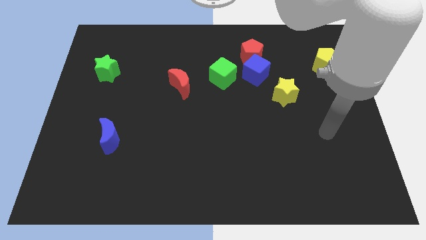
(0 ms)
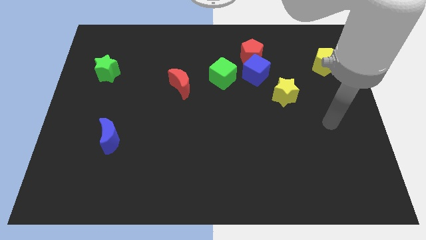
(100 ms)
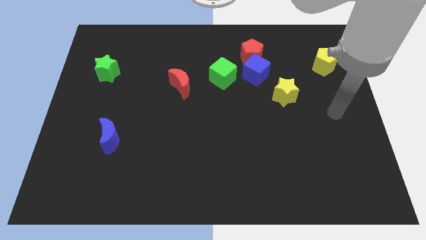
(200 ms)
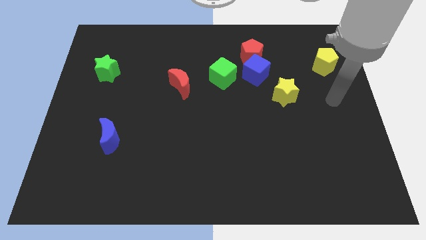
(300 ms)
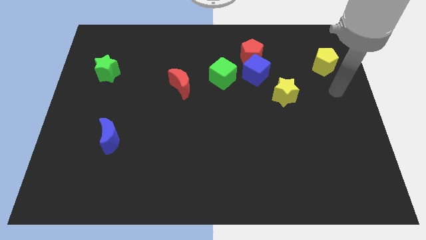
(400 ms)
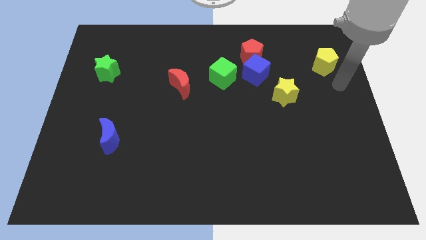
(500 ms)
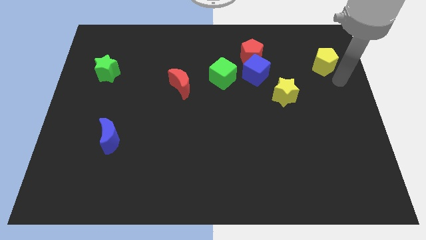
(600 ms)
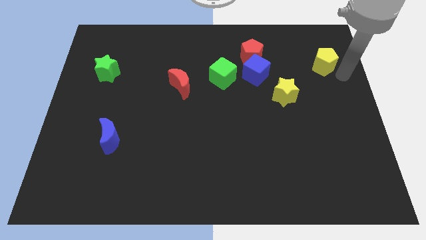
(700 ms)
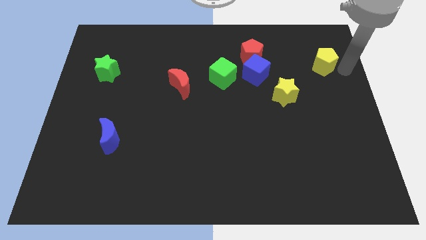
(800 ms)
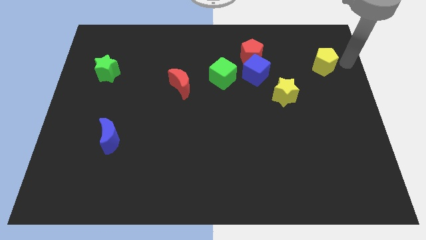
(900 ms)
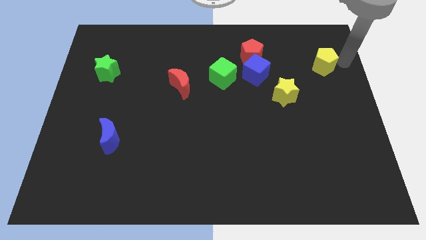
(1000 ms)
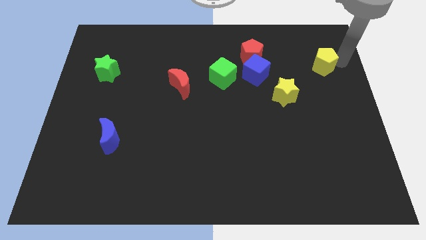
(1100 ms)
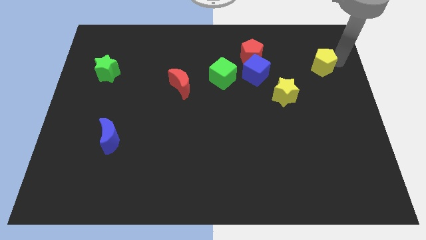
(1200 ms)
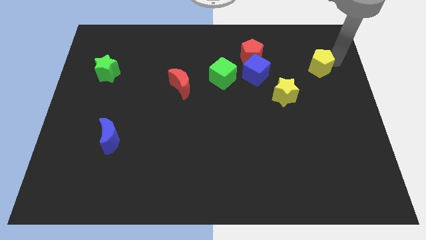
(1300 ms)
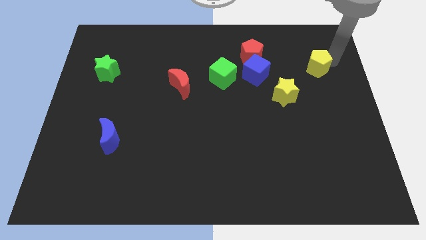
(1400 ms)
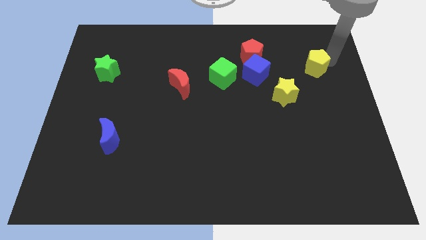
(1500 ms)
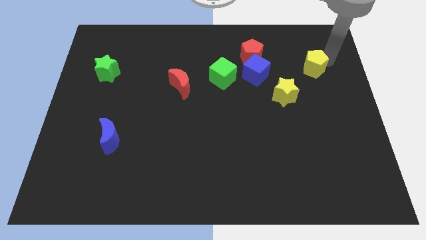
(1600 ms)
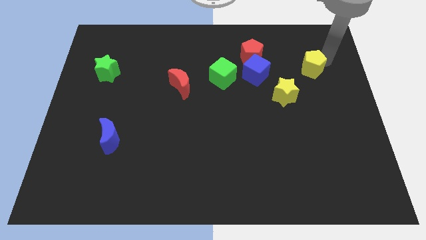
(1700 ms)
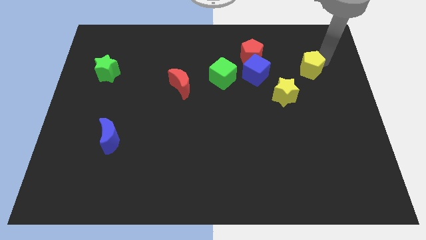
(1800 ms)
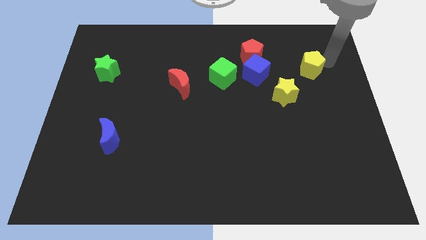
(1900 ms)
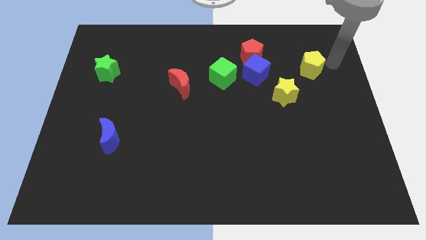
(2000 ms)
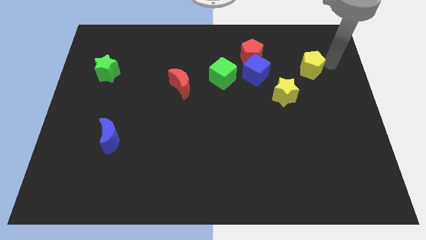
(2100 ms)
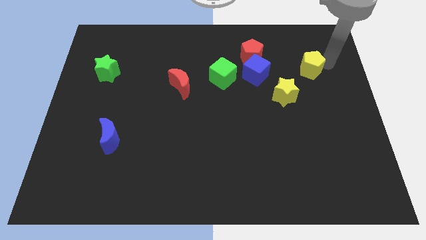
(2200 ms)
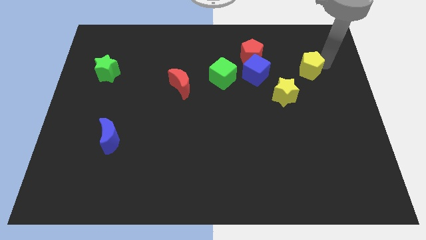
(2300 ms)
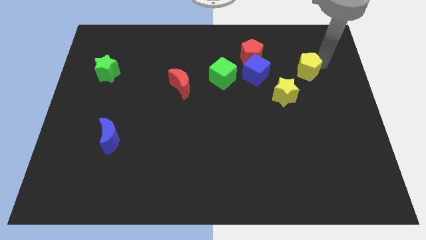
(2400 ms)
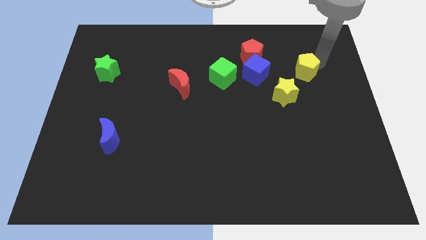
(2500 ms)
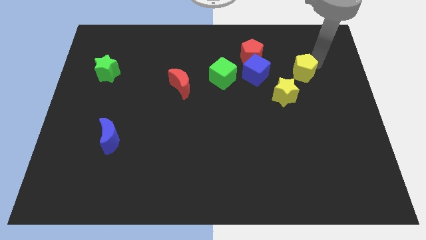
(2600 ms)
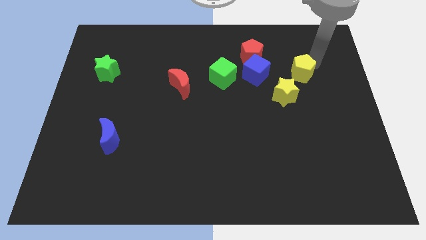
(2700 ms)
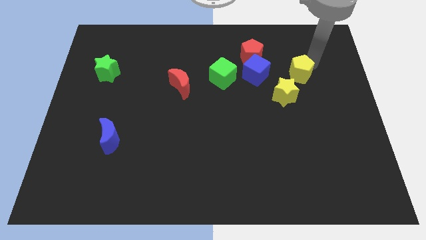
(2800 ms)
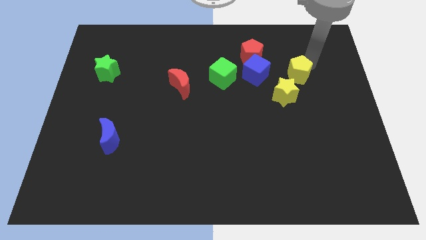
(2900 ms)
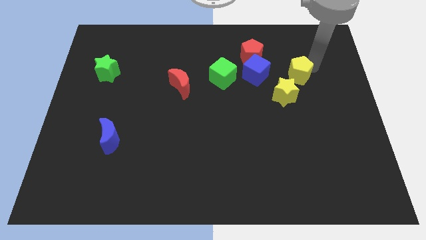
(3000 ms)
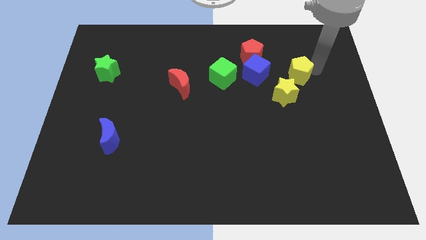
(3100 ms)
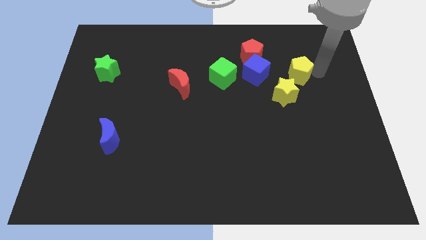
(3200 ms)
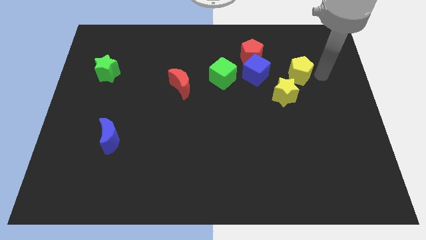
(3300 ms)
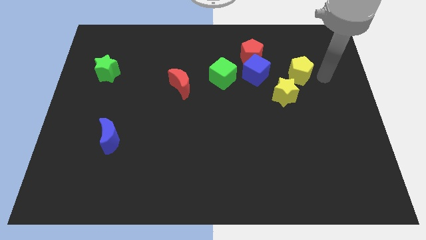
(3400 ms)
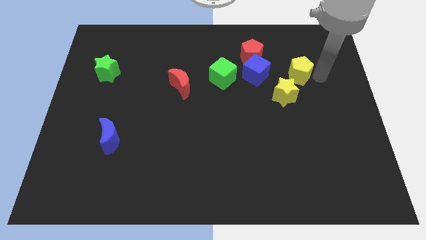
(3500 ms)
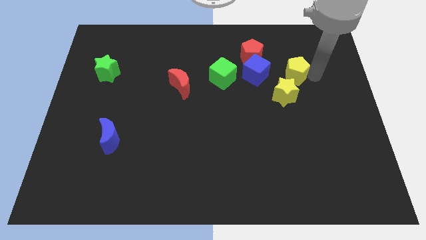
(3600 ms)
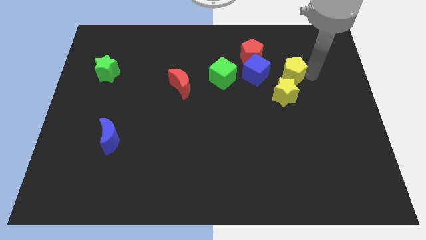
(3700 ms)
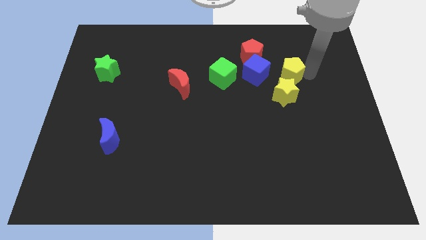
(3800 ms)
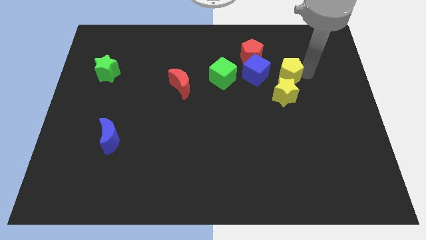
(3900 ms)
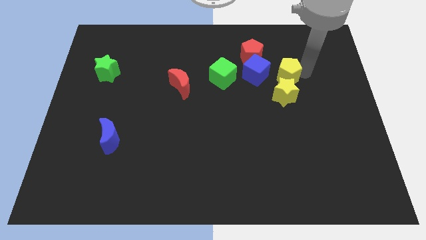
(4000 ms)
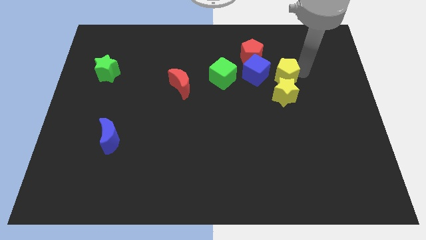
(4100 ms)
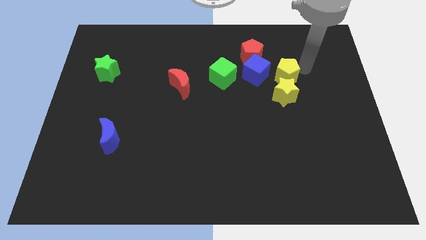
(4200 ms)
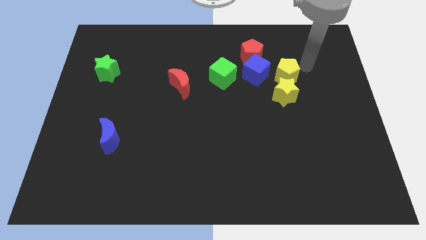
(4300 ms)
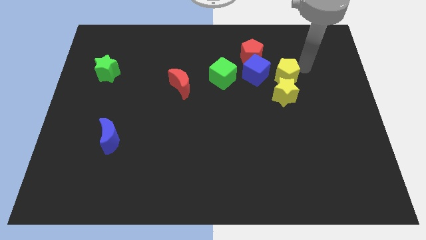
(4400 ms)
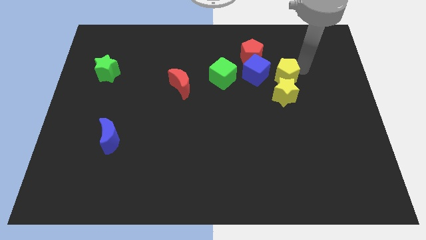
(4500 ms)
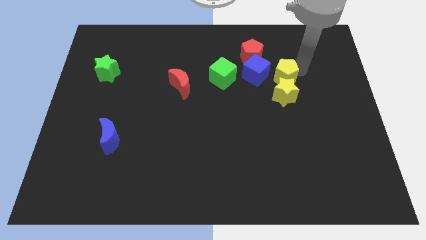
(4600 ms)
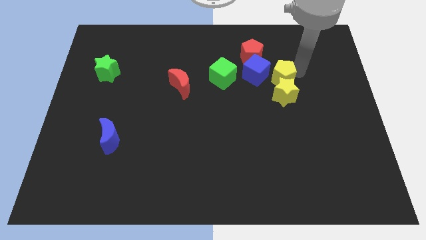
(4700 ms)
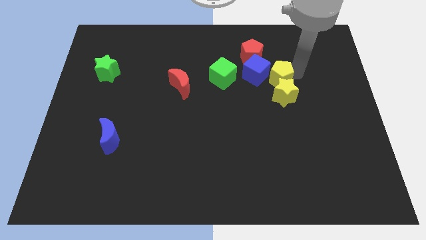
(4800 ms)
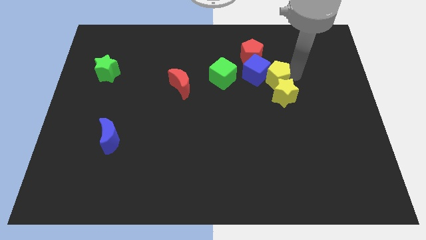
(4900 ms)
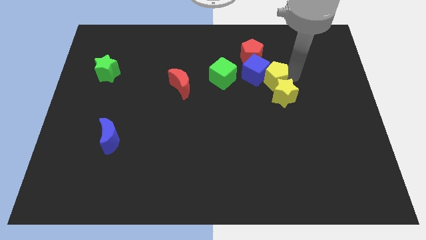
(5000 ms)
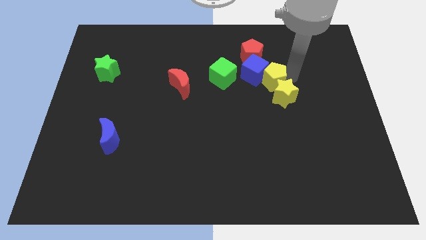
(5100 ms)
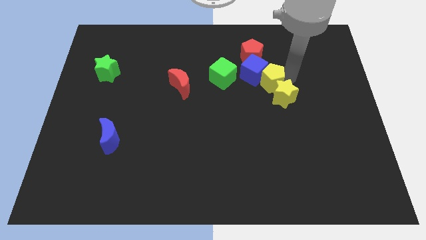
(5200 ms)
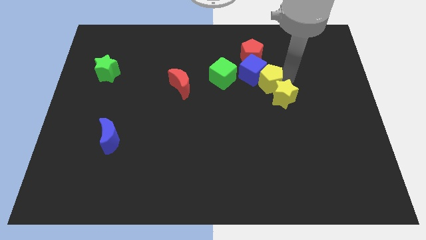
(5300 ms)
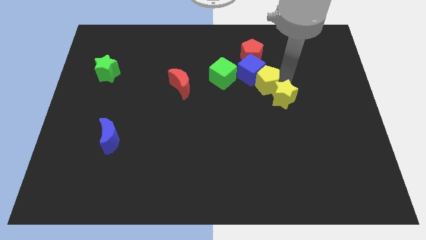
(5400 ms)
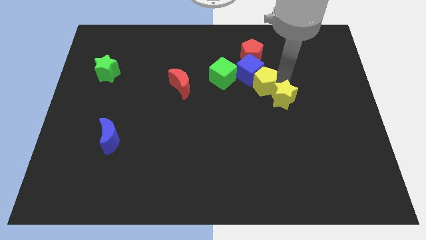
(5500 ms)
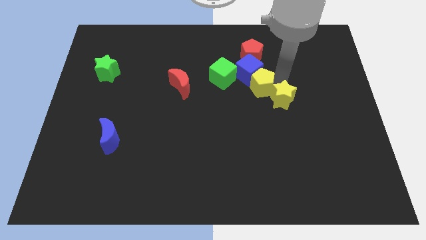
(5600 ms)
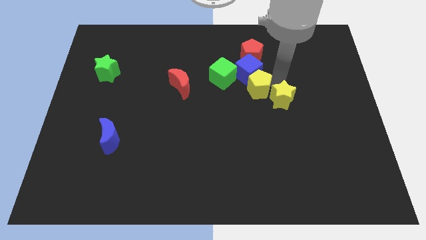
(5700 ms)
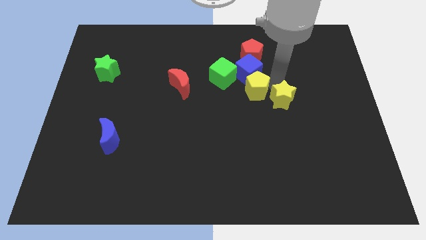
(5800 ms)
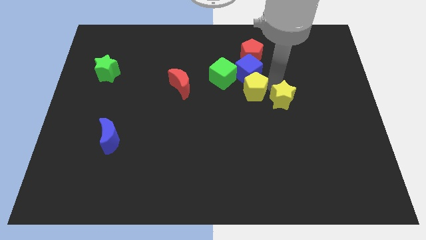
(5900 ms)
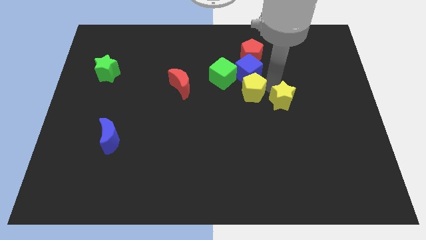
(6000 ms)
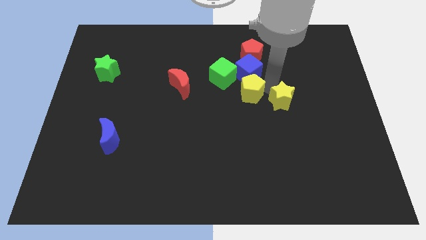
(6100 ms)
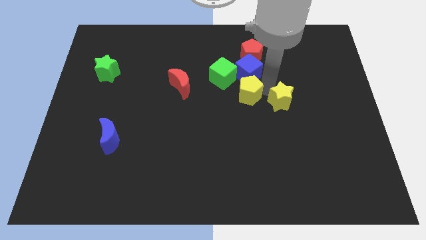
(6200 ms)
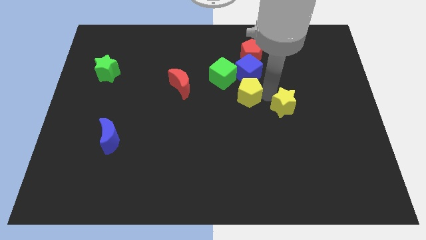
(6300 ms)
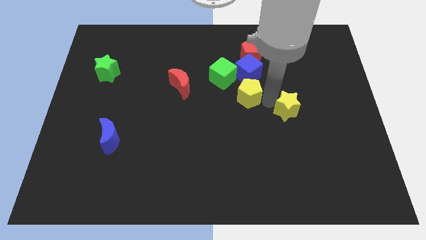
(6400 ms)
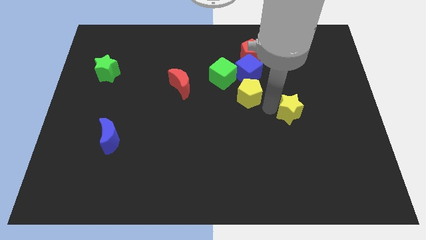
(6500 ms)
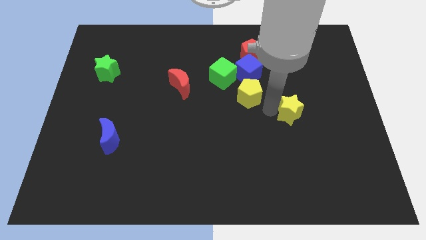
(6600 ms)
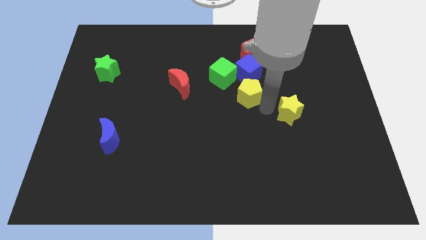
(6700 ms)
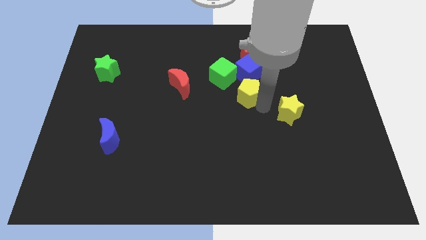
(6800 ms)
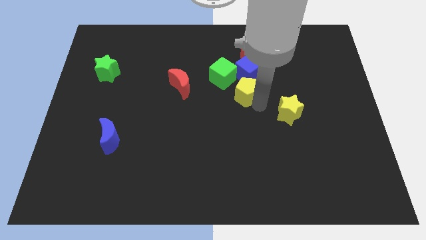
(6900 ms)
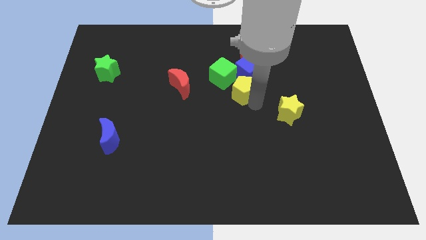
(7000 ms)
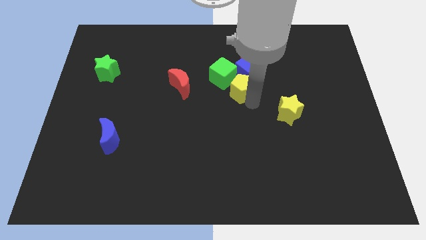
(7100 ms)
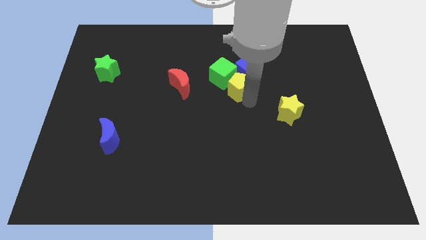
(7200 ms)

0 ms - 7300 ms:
push the yellow pentagon next to the green cube

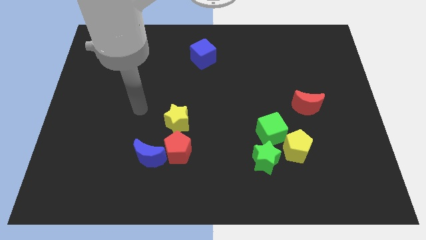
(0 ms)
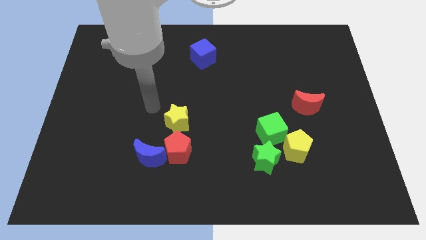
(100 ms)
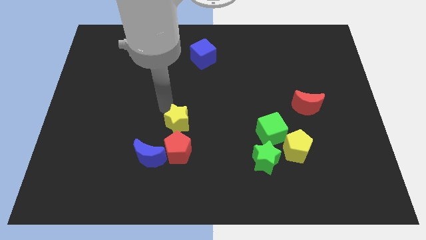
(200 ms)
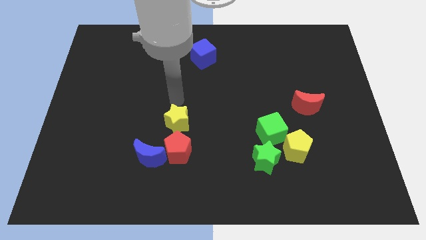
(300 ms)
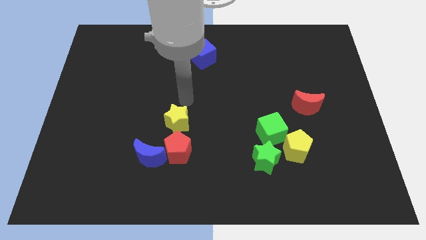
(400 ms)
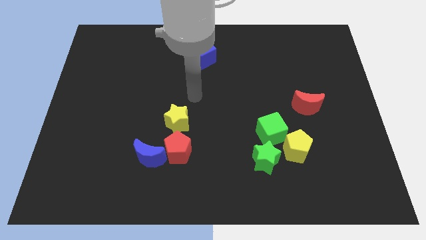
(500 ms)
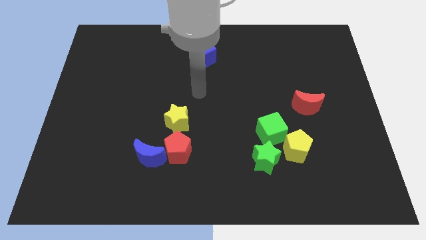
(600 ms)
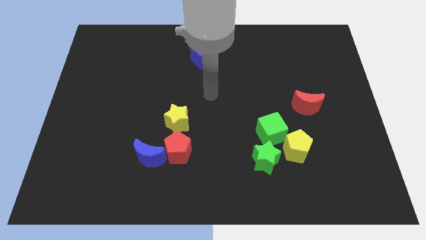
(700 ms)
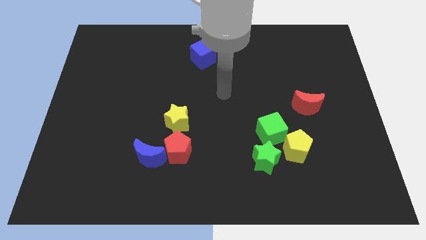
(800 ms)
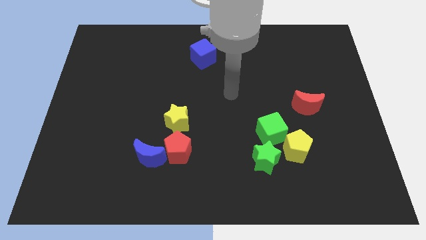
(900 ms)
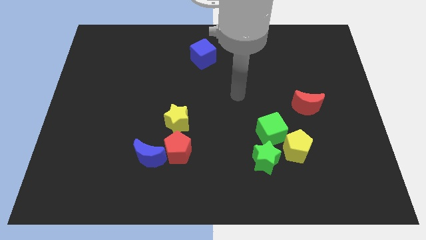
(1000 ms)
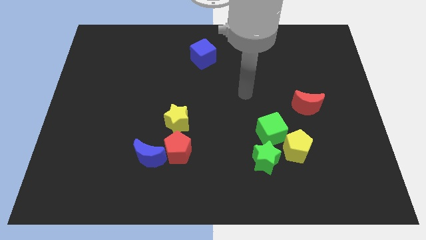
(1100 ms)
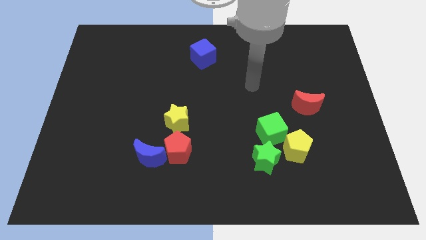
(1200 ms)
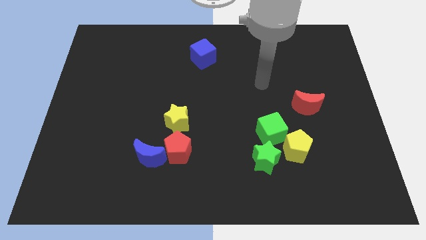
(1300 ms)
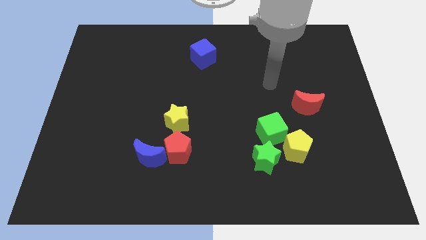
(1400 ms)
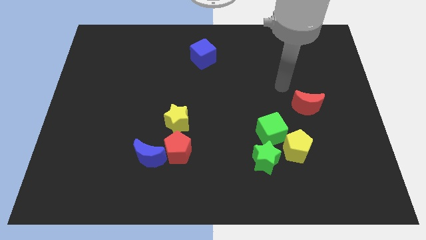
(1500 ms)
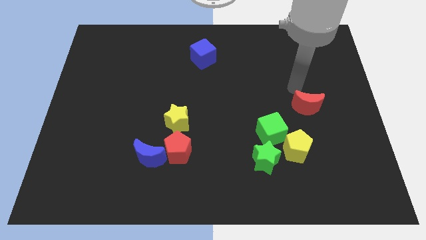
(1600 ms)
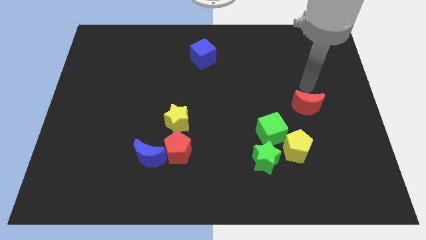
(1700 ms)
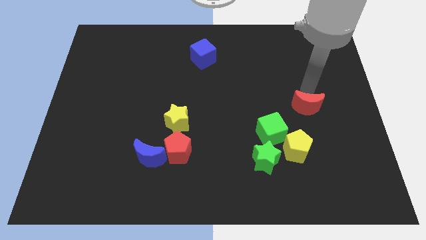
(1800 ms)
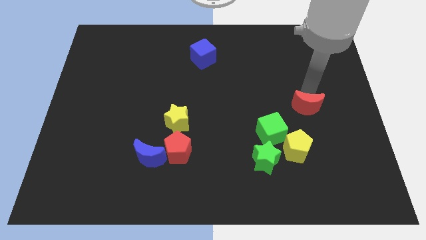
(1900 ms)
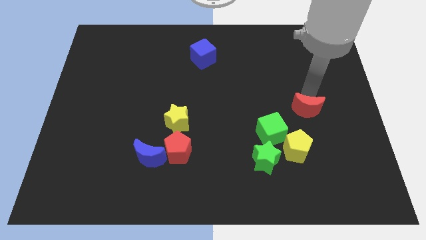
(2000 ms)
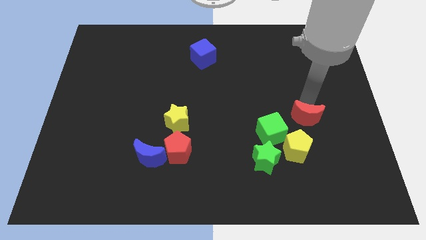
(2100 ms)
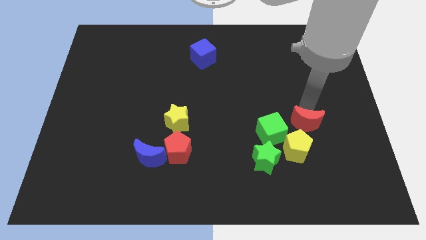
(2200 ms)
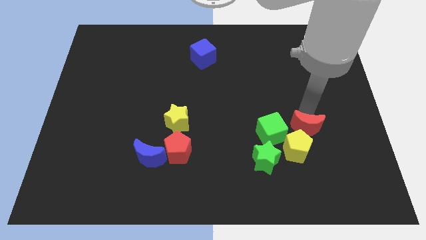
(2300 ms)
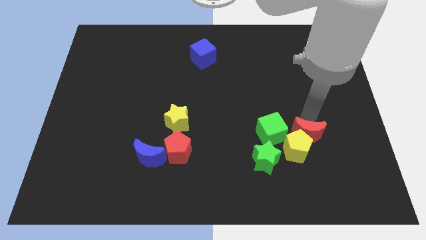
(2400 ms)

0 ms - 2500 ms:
put the red moon towards the yellow pentagon
